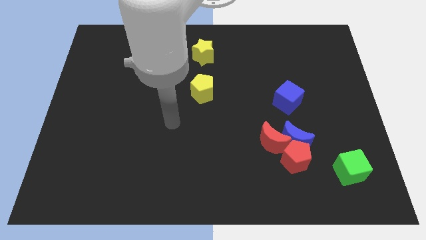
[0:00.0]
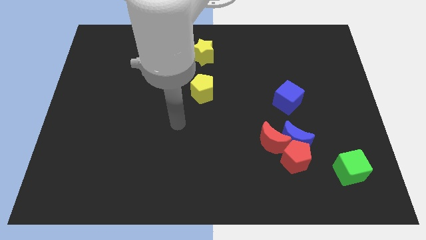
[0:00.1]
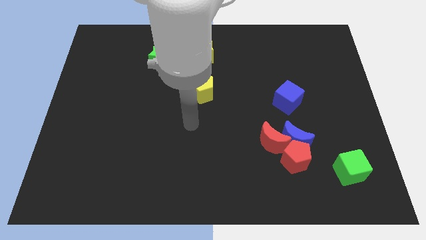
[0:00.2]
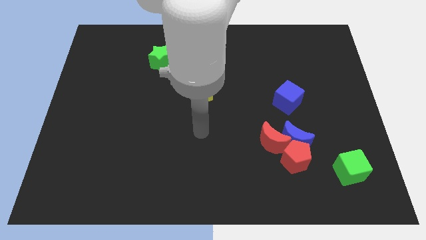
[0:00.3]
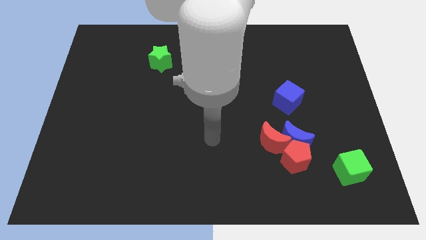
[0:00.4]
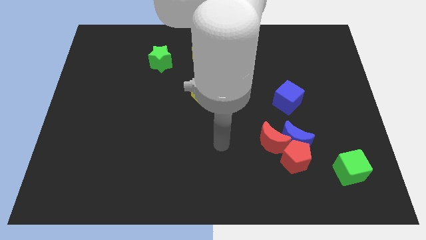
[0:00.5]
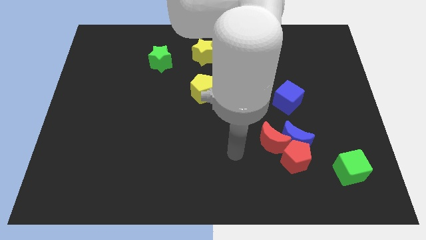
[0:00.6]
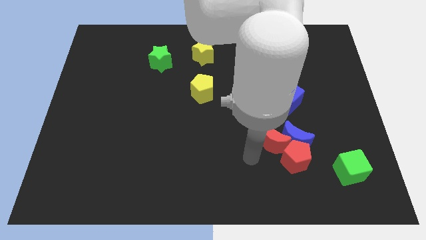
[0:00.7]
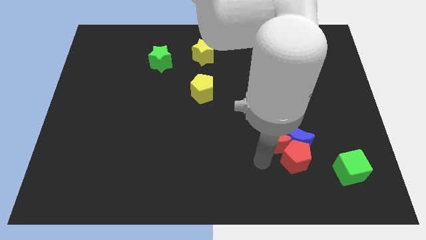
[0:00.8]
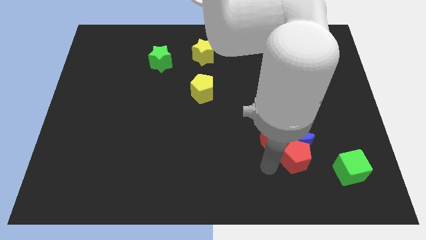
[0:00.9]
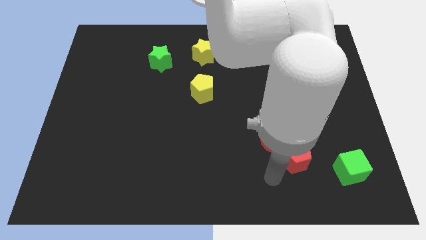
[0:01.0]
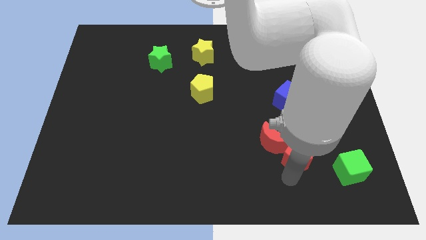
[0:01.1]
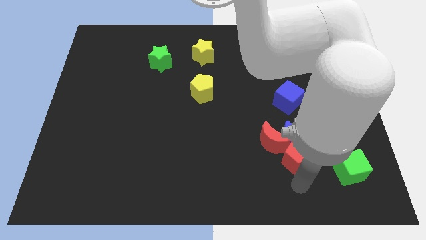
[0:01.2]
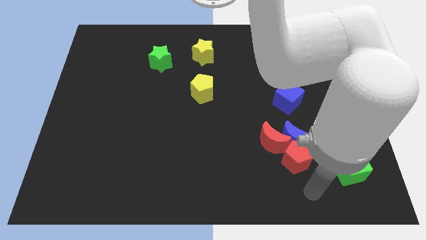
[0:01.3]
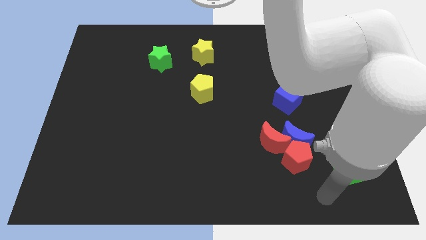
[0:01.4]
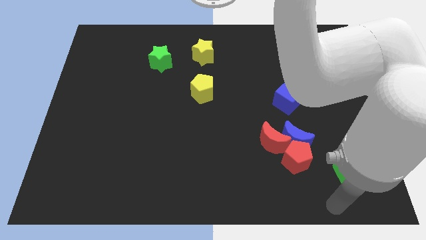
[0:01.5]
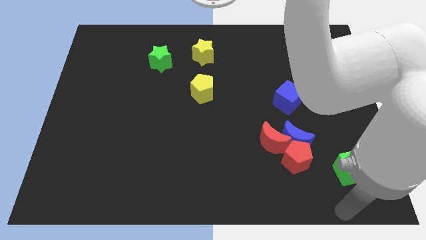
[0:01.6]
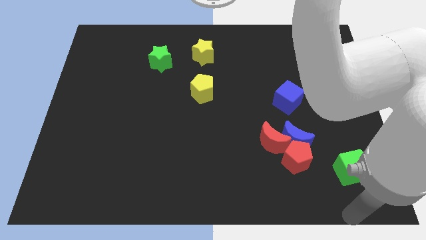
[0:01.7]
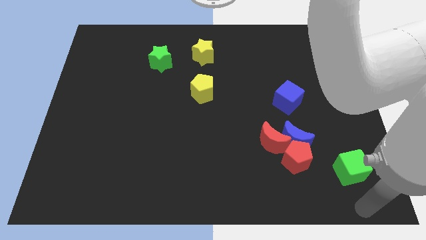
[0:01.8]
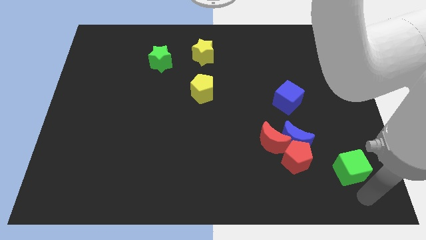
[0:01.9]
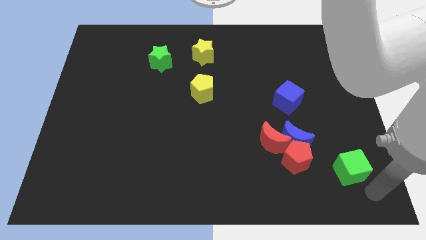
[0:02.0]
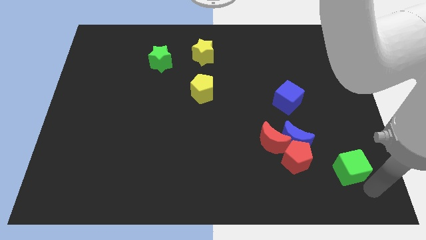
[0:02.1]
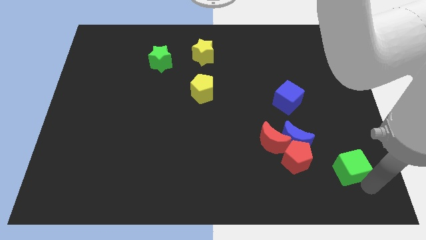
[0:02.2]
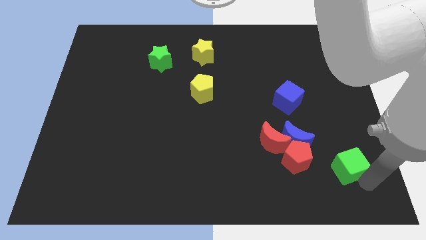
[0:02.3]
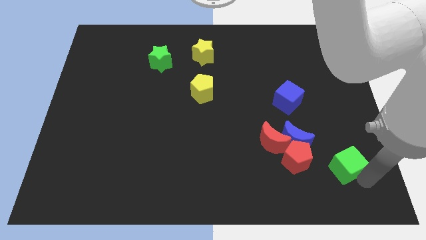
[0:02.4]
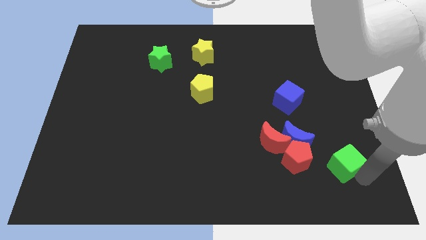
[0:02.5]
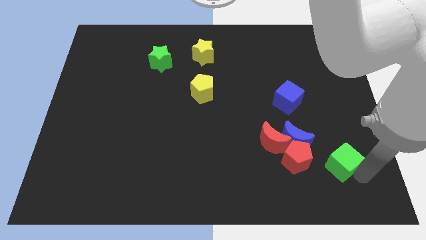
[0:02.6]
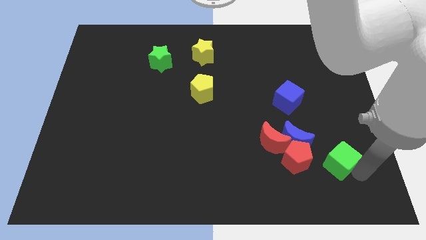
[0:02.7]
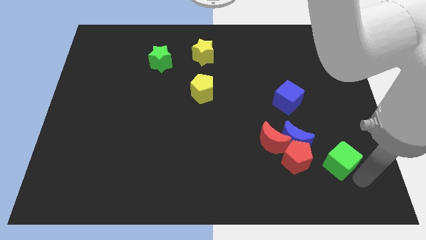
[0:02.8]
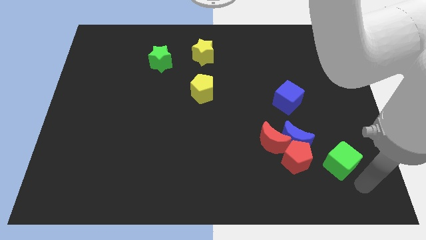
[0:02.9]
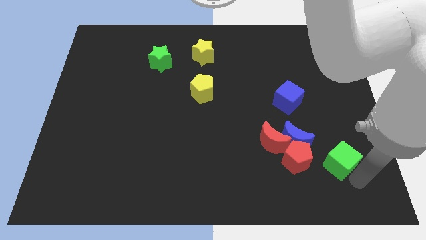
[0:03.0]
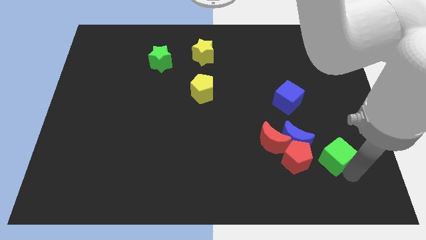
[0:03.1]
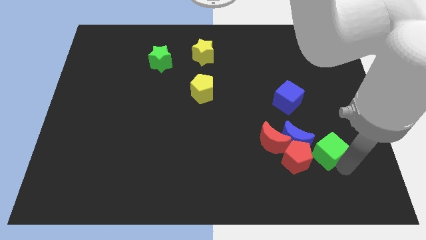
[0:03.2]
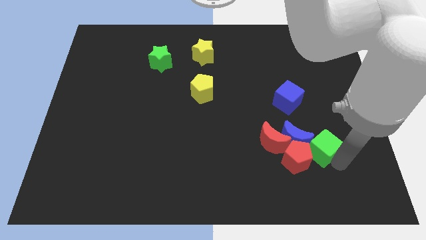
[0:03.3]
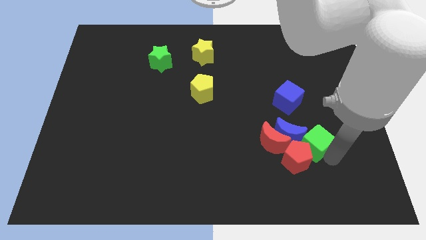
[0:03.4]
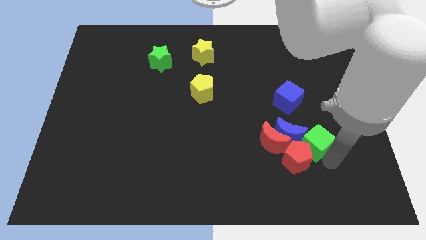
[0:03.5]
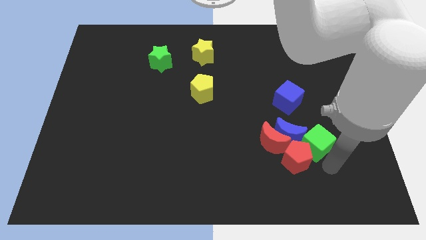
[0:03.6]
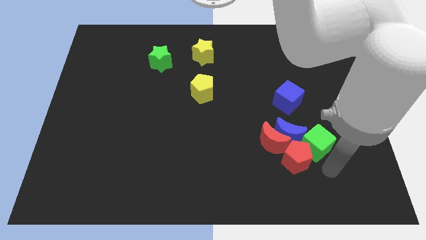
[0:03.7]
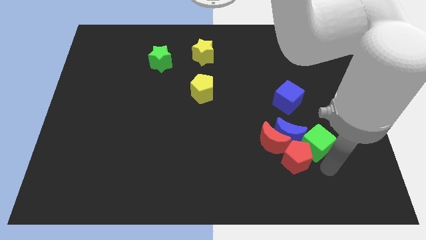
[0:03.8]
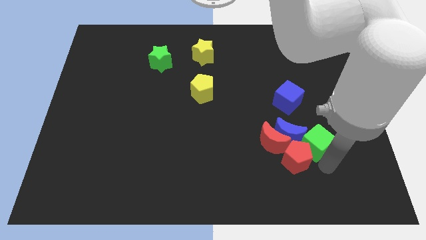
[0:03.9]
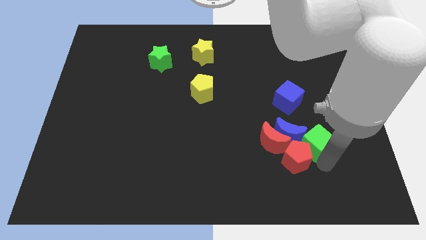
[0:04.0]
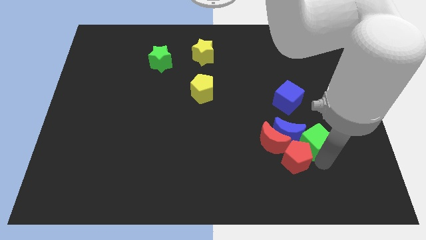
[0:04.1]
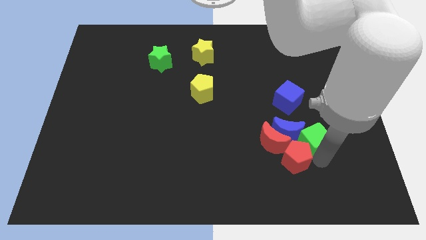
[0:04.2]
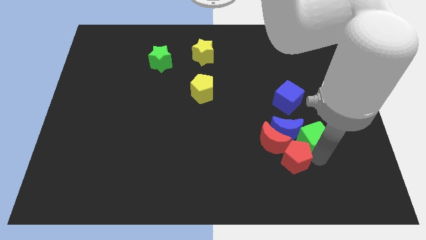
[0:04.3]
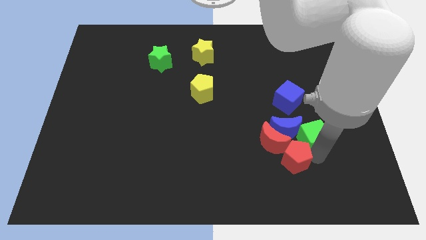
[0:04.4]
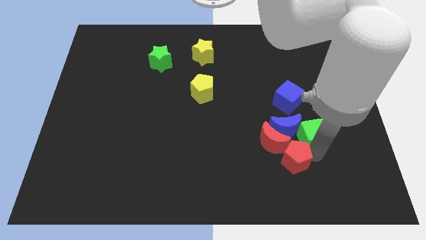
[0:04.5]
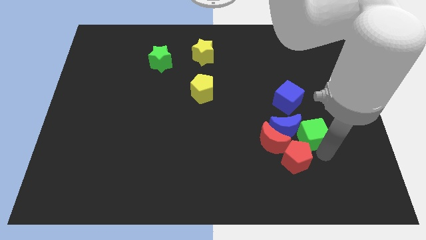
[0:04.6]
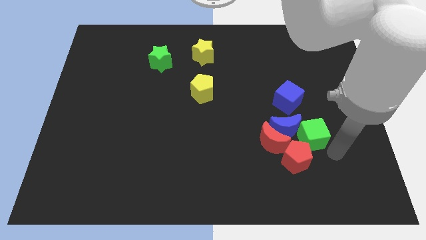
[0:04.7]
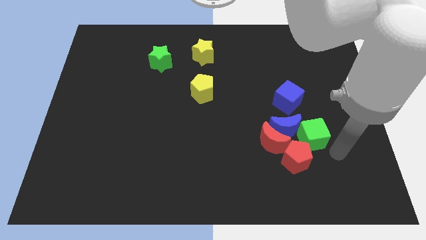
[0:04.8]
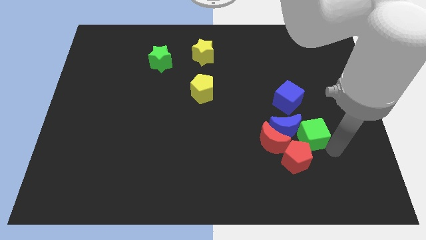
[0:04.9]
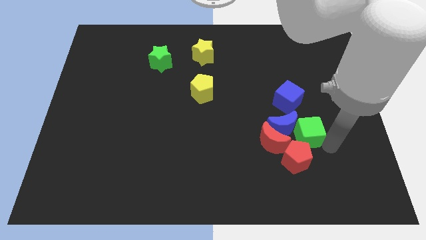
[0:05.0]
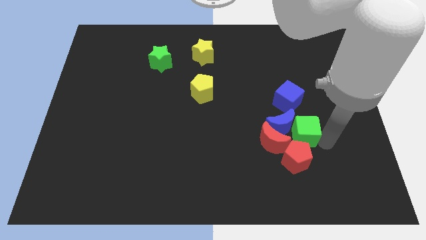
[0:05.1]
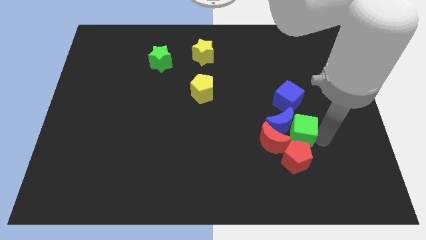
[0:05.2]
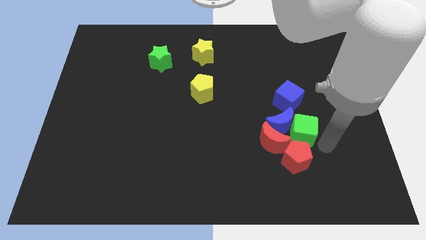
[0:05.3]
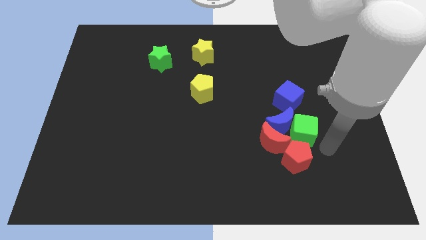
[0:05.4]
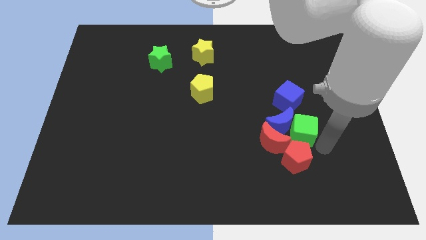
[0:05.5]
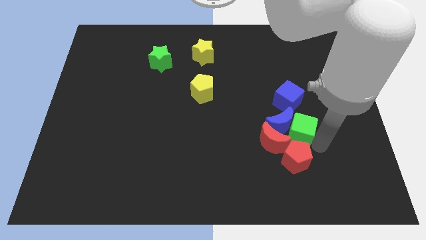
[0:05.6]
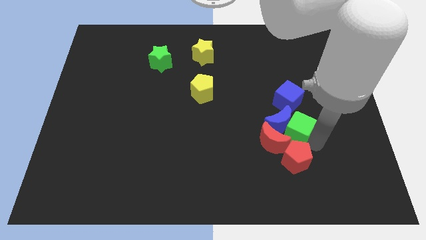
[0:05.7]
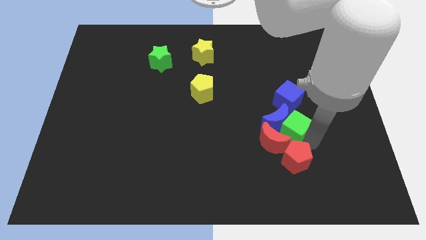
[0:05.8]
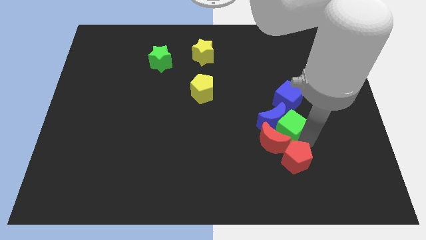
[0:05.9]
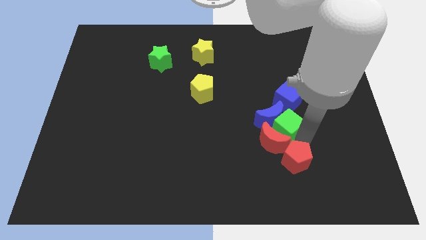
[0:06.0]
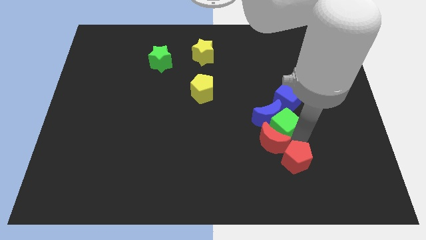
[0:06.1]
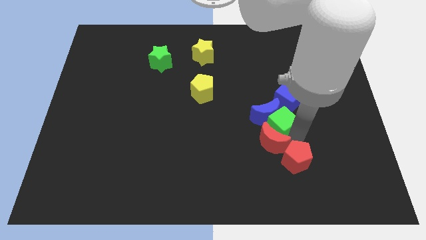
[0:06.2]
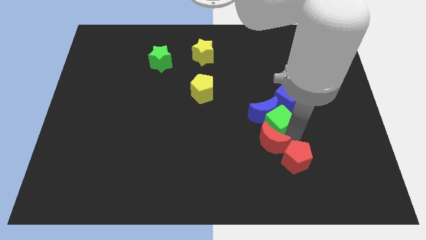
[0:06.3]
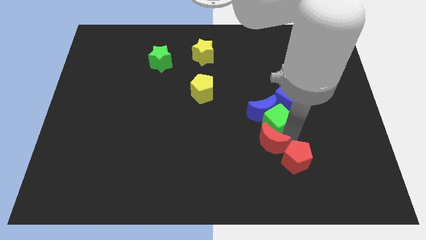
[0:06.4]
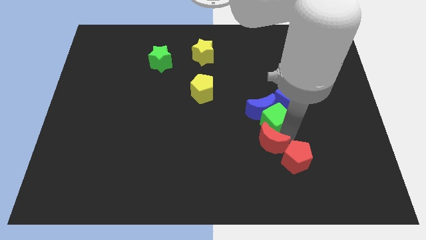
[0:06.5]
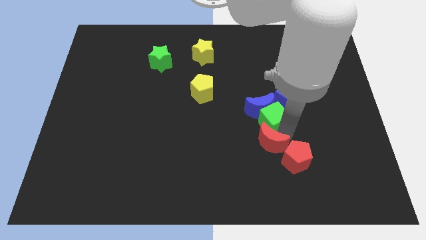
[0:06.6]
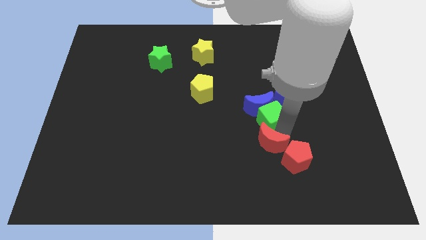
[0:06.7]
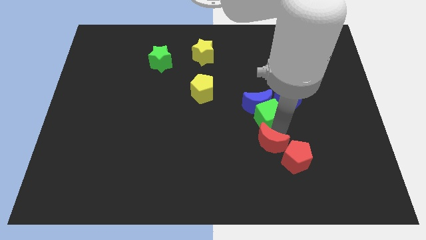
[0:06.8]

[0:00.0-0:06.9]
push the green cube upwards and then left

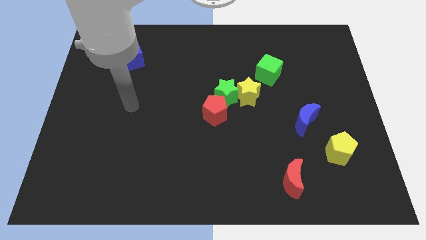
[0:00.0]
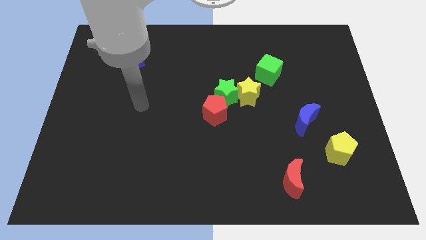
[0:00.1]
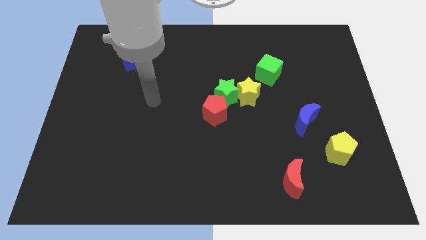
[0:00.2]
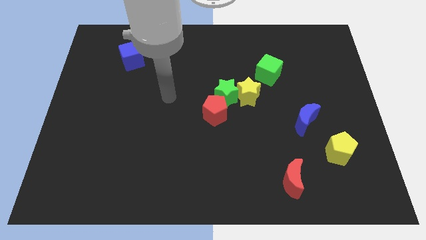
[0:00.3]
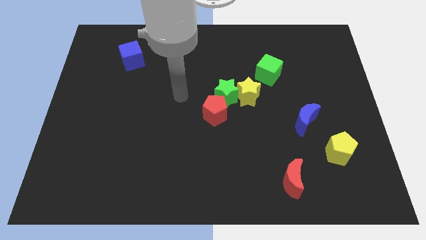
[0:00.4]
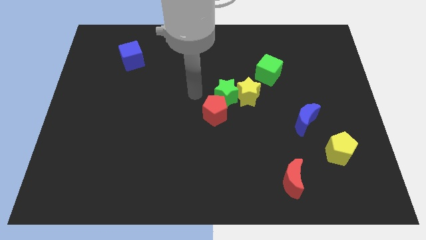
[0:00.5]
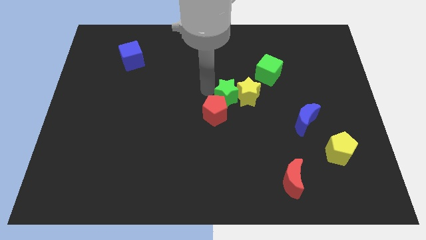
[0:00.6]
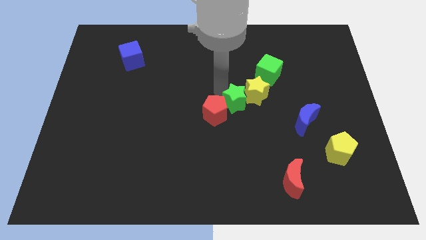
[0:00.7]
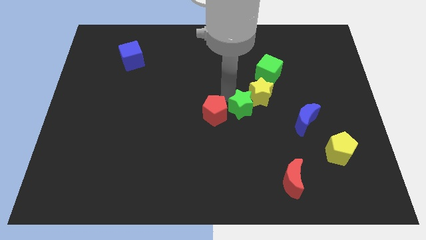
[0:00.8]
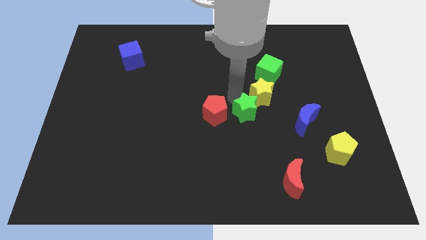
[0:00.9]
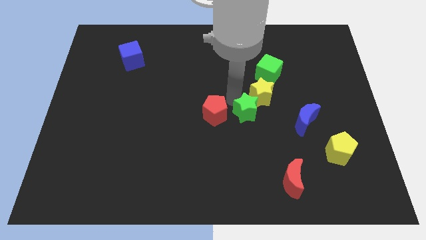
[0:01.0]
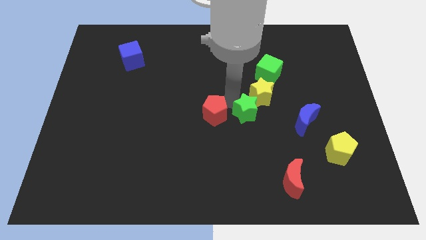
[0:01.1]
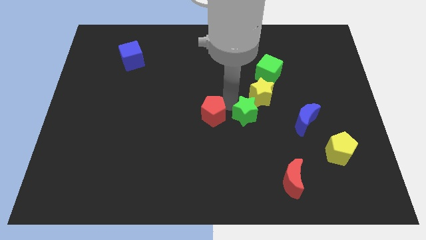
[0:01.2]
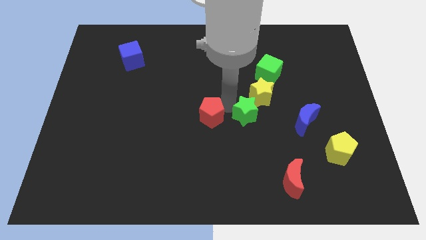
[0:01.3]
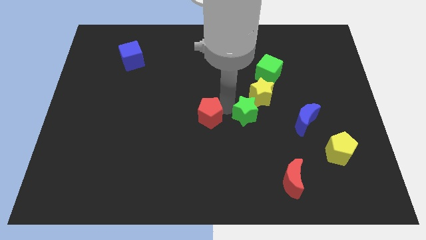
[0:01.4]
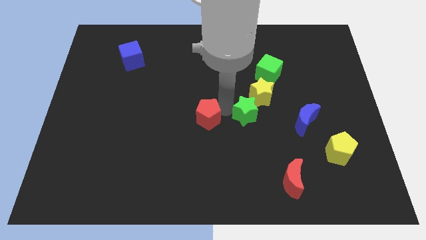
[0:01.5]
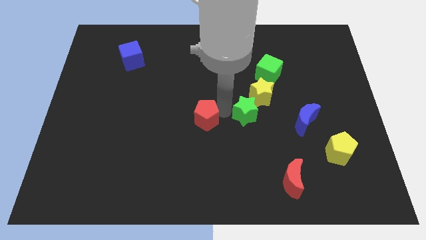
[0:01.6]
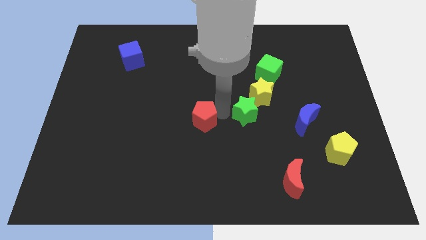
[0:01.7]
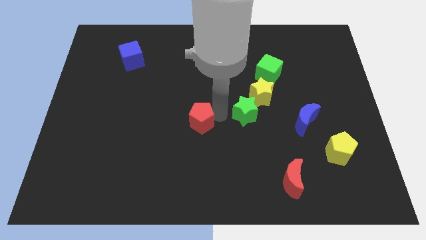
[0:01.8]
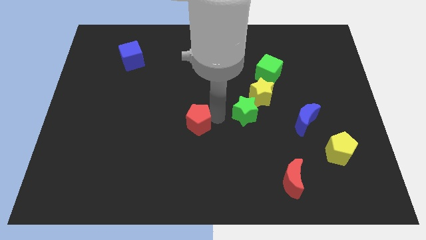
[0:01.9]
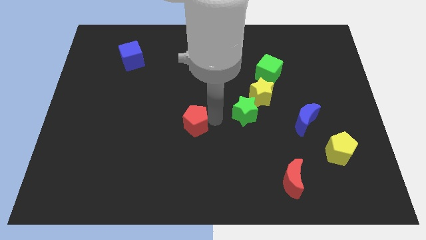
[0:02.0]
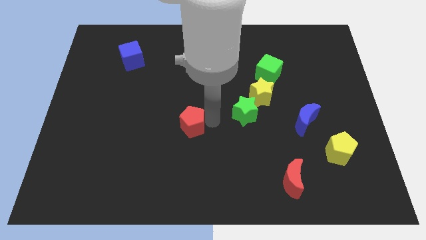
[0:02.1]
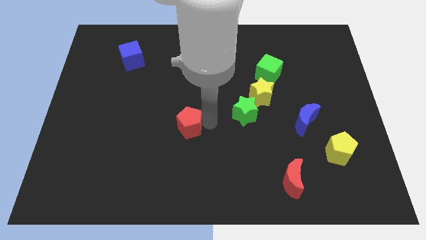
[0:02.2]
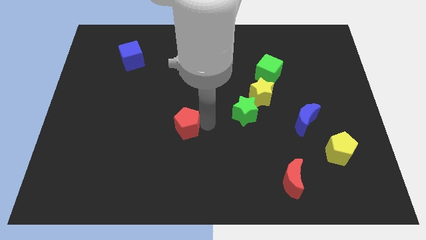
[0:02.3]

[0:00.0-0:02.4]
push the red pentagon downwards and then to the left somewhat
